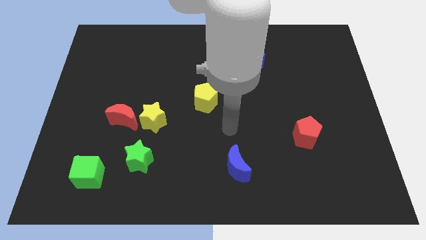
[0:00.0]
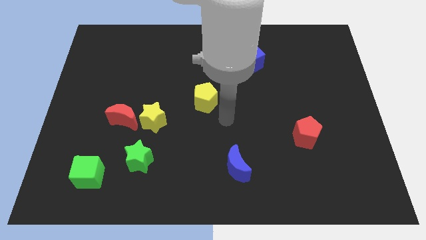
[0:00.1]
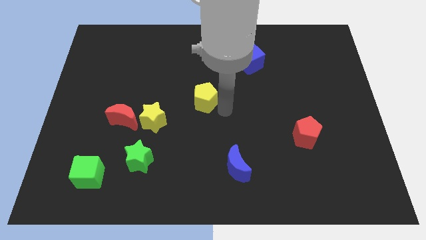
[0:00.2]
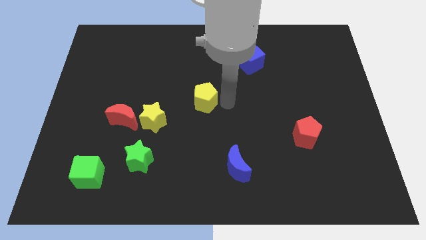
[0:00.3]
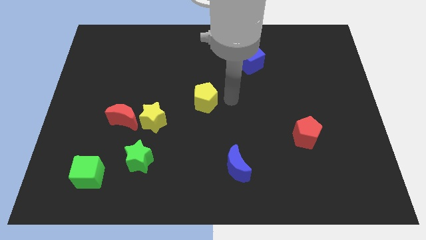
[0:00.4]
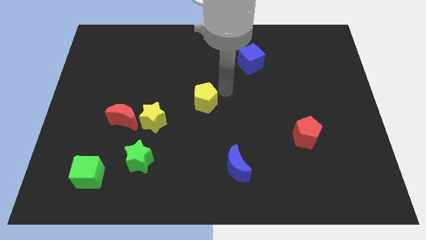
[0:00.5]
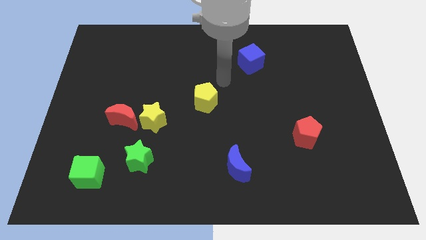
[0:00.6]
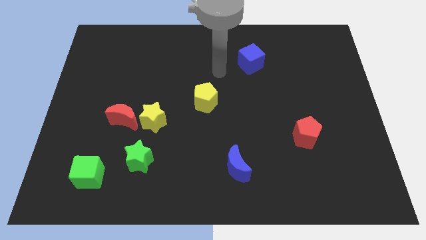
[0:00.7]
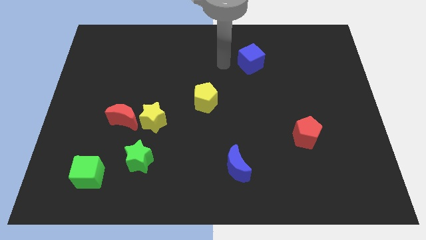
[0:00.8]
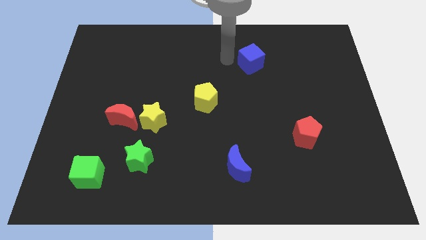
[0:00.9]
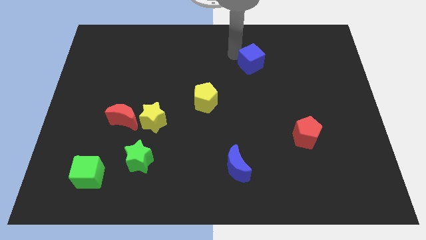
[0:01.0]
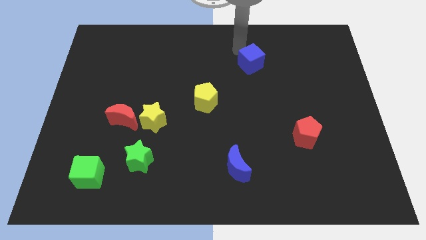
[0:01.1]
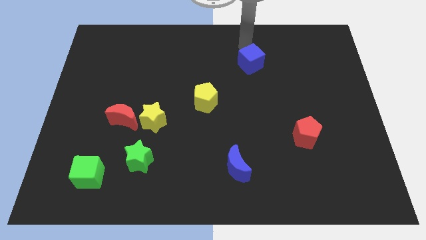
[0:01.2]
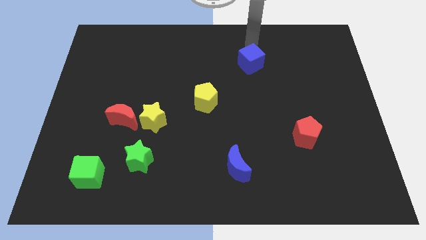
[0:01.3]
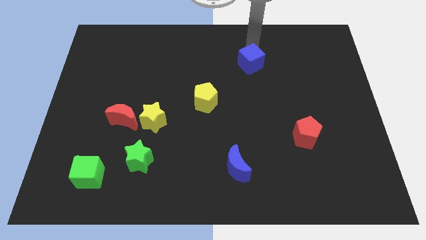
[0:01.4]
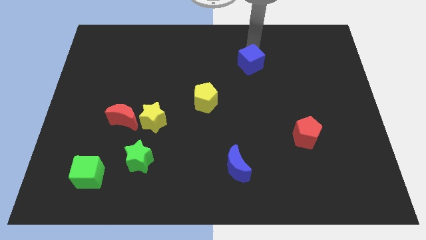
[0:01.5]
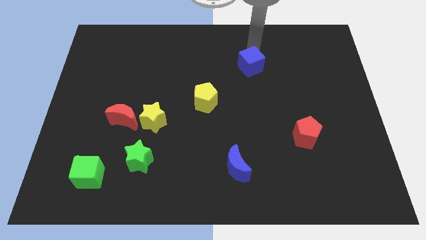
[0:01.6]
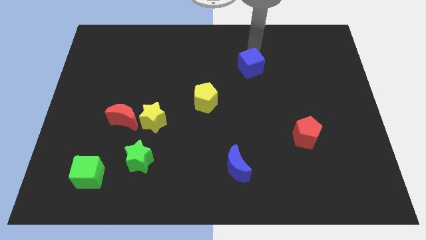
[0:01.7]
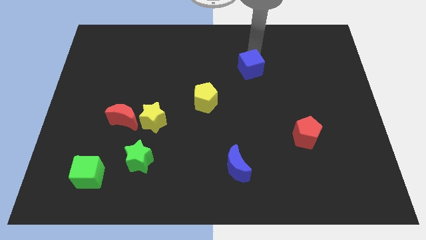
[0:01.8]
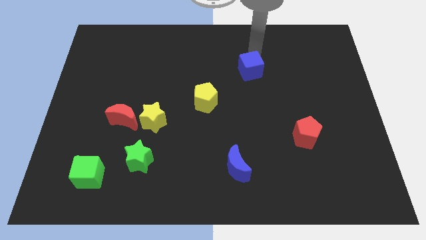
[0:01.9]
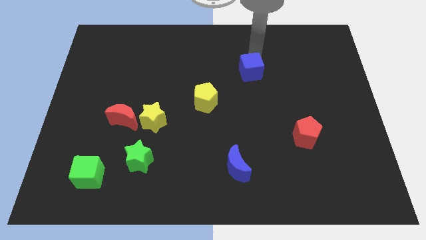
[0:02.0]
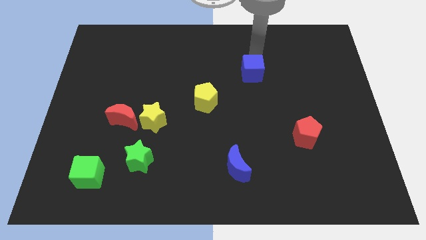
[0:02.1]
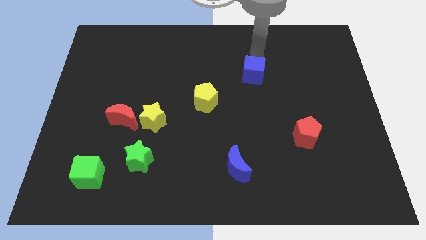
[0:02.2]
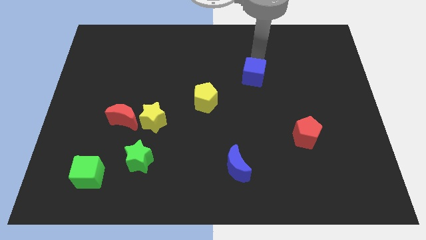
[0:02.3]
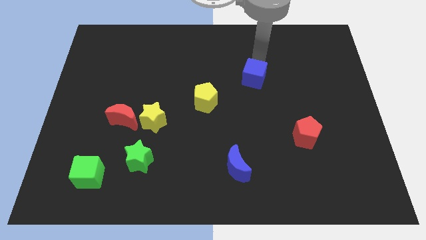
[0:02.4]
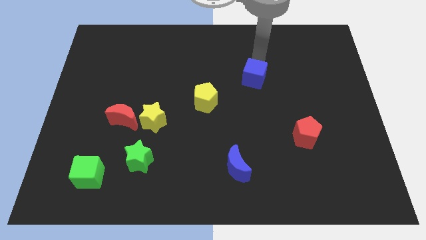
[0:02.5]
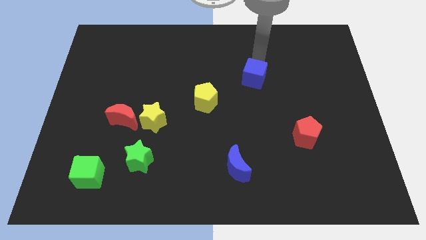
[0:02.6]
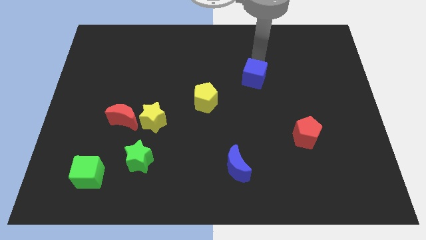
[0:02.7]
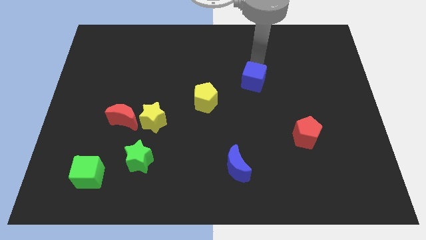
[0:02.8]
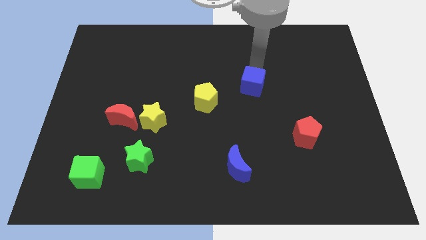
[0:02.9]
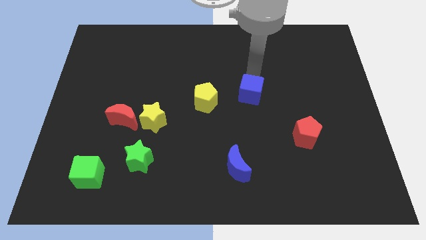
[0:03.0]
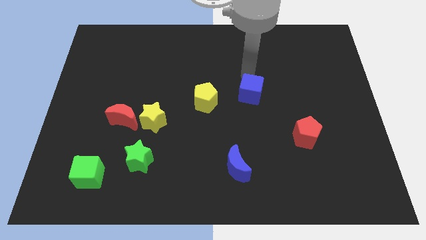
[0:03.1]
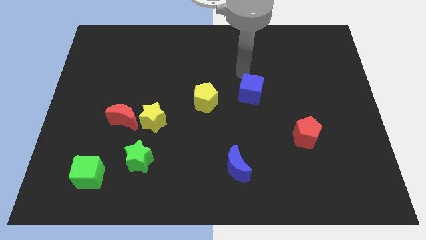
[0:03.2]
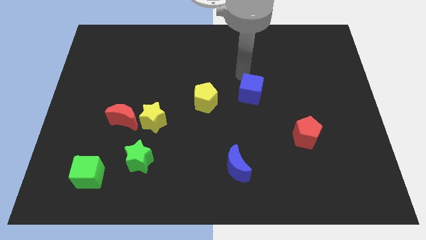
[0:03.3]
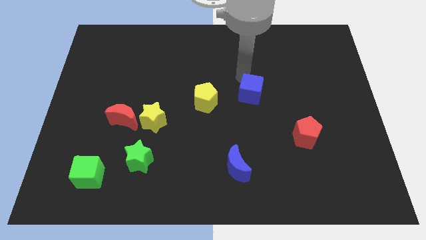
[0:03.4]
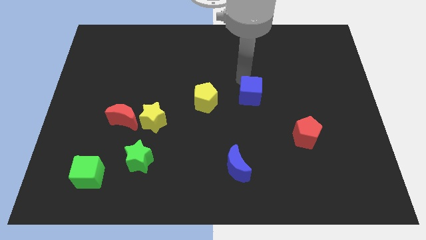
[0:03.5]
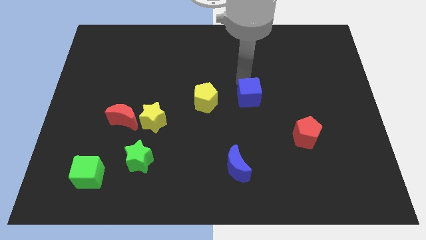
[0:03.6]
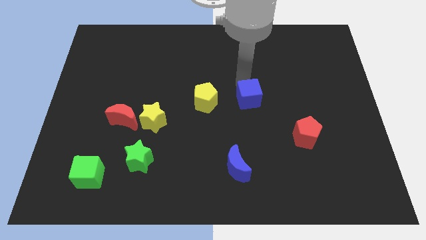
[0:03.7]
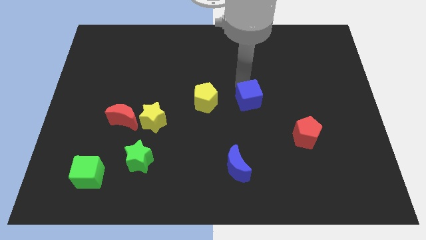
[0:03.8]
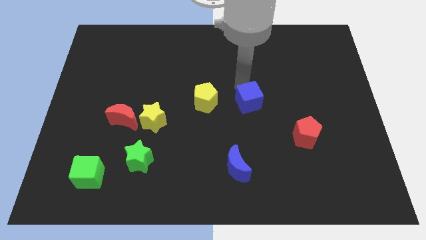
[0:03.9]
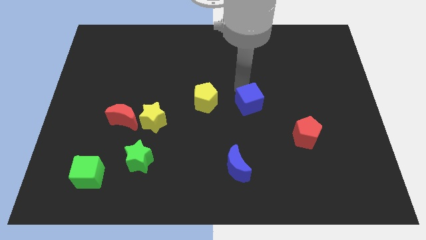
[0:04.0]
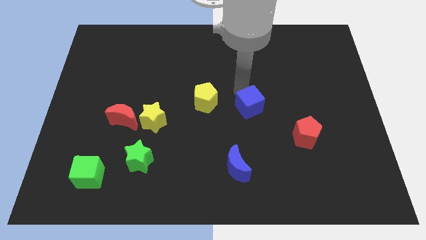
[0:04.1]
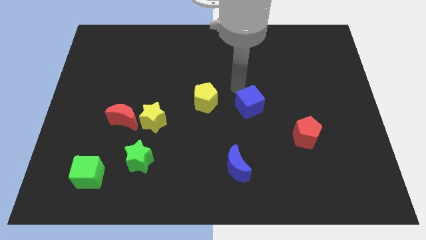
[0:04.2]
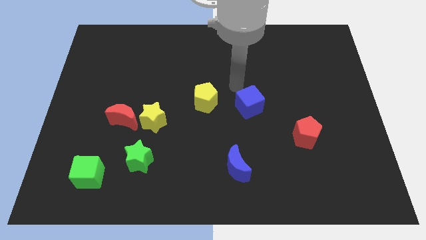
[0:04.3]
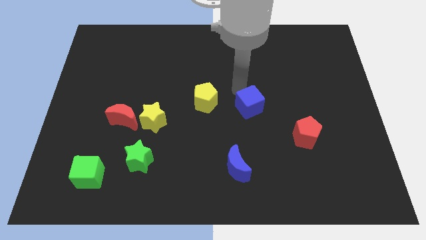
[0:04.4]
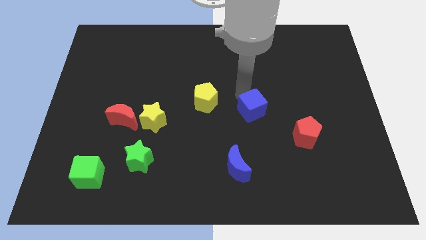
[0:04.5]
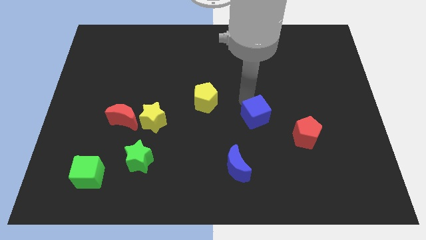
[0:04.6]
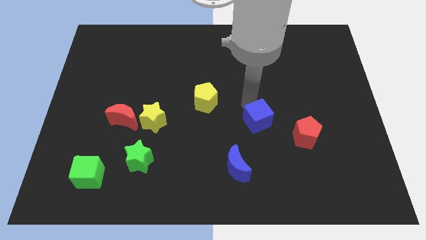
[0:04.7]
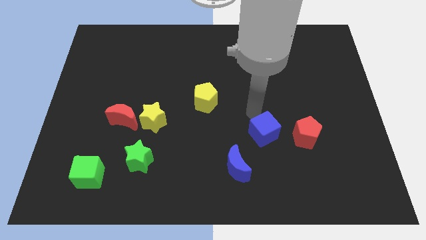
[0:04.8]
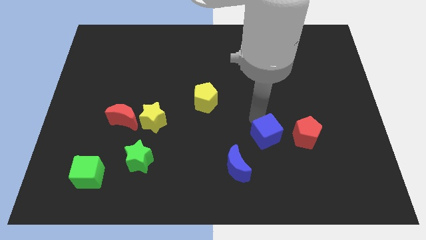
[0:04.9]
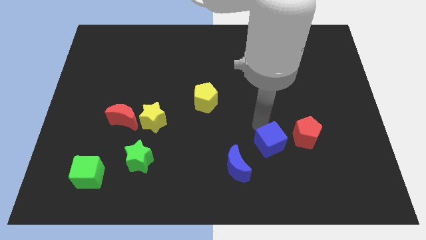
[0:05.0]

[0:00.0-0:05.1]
move the blue cube diagonally down and to the left of the red pentagon

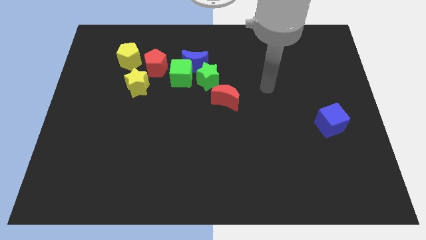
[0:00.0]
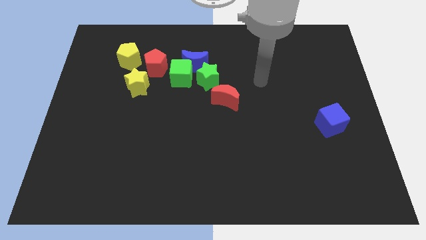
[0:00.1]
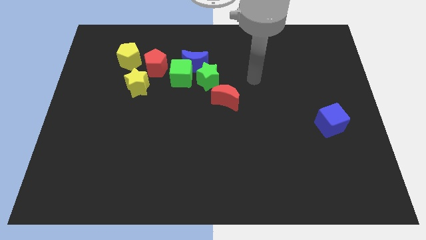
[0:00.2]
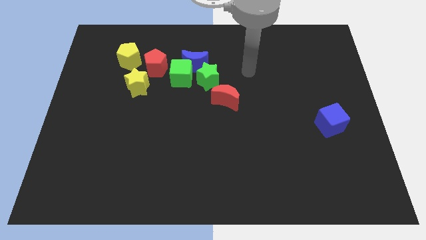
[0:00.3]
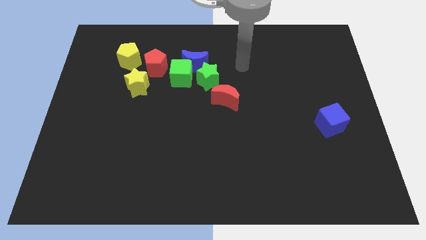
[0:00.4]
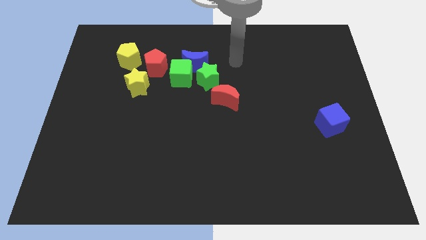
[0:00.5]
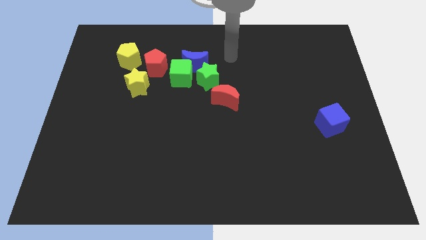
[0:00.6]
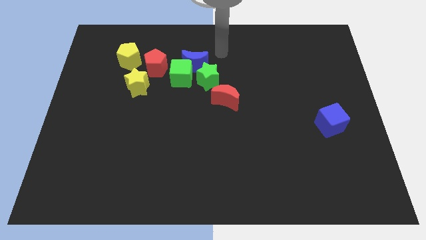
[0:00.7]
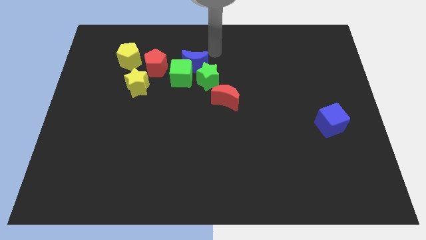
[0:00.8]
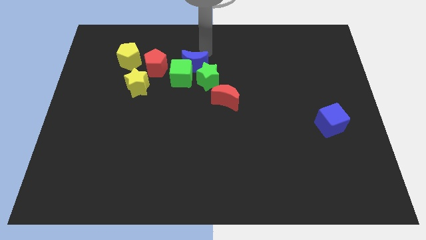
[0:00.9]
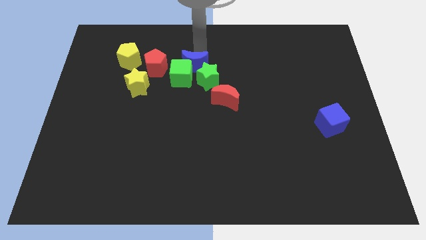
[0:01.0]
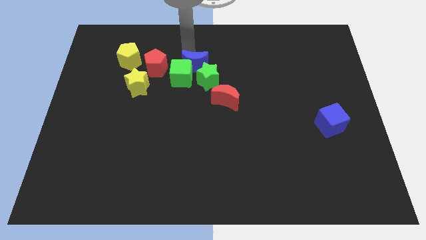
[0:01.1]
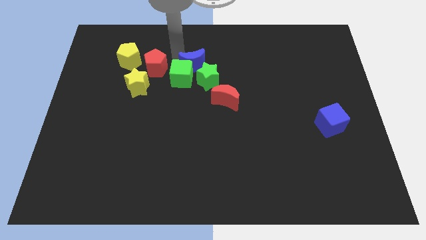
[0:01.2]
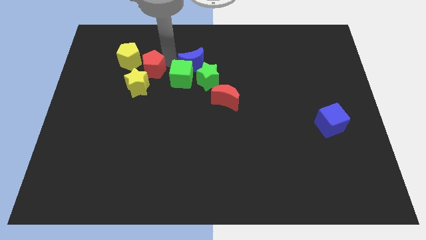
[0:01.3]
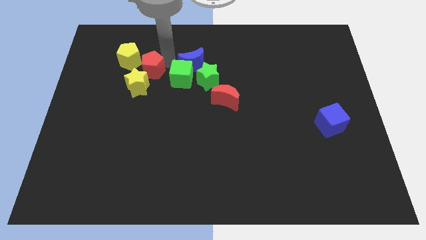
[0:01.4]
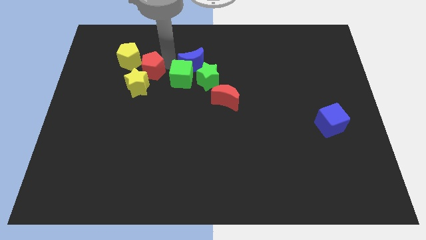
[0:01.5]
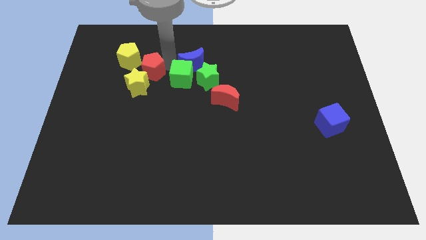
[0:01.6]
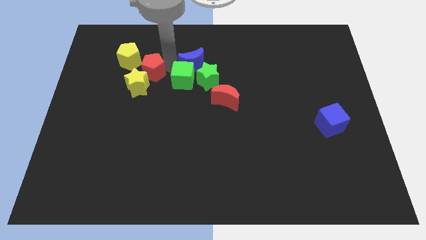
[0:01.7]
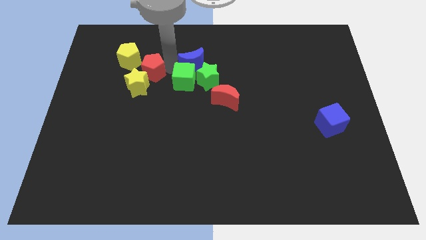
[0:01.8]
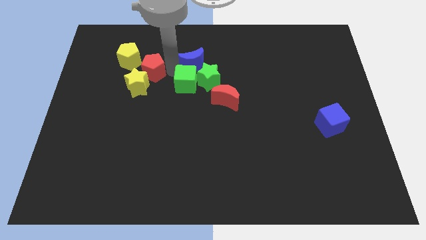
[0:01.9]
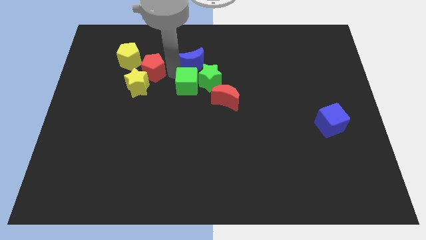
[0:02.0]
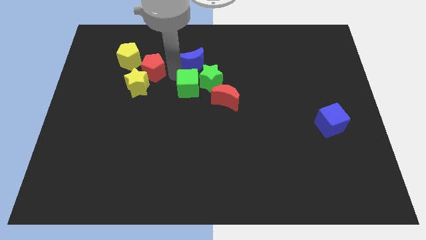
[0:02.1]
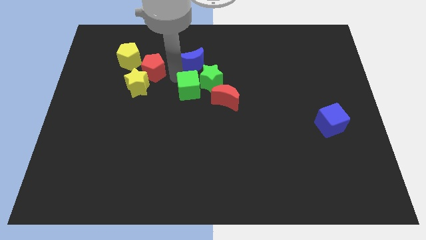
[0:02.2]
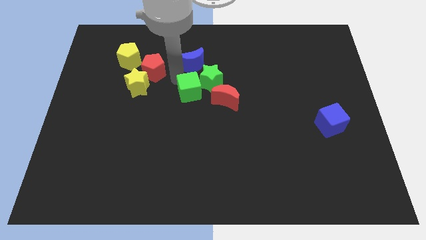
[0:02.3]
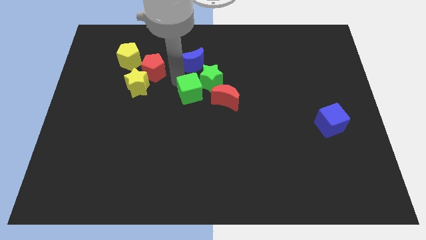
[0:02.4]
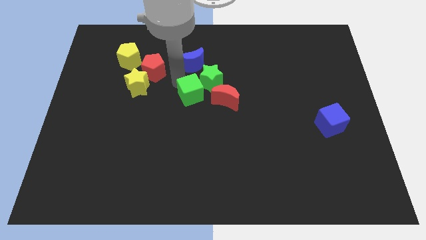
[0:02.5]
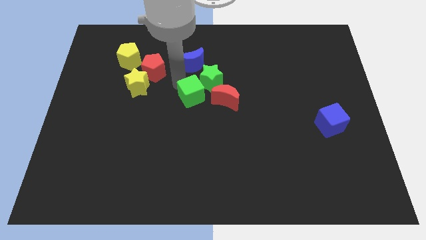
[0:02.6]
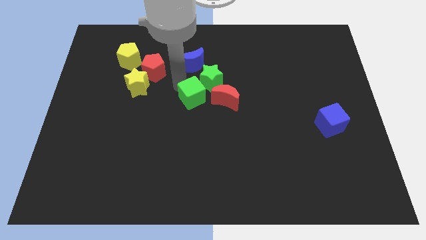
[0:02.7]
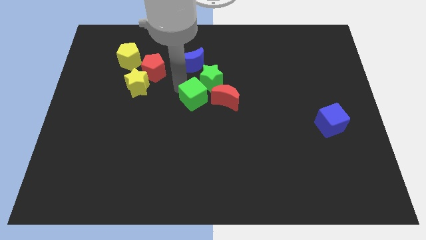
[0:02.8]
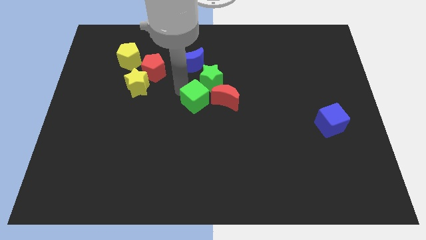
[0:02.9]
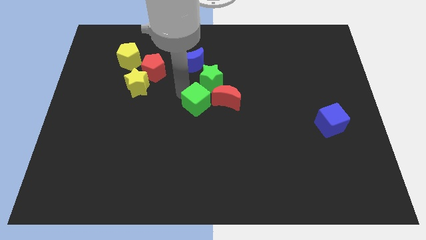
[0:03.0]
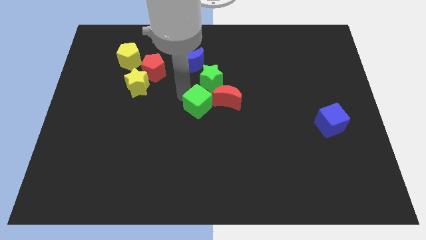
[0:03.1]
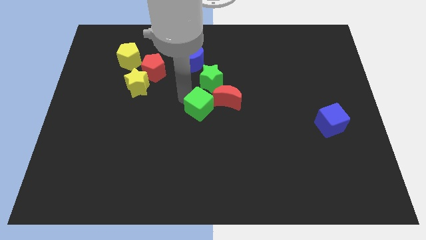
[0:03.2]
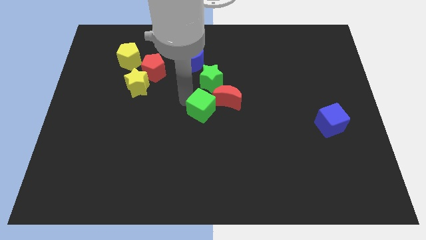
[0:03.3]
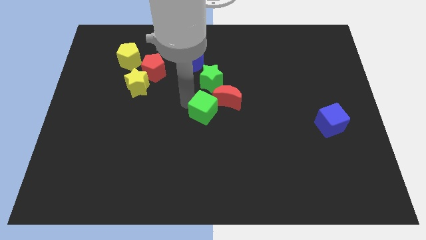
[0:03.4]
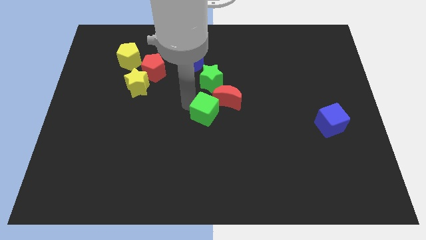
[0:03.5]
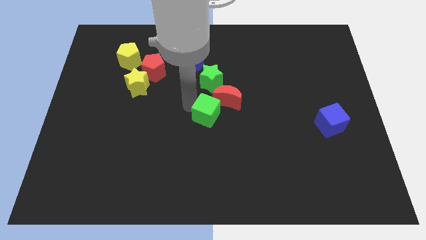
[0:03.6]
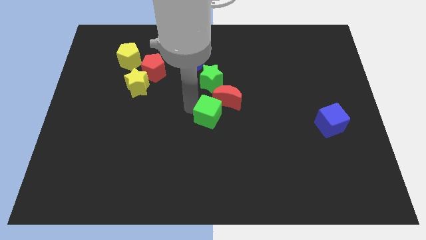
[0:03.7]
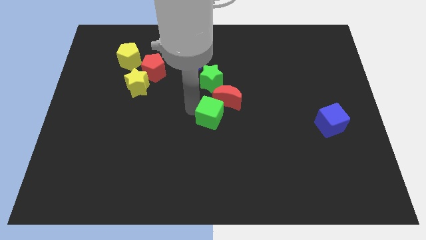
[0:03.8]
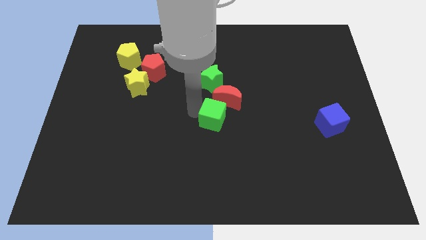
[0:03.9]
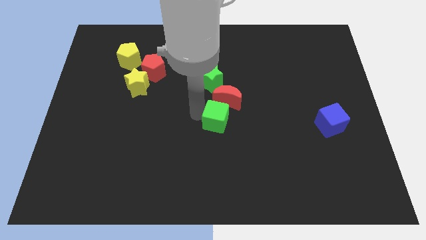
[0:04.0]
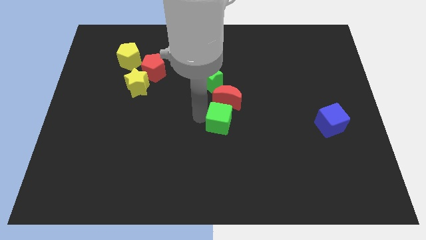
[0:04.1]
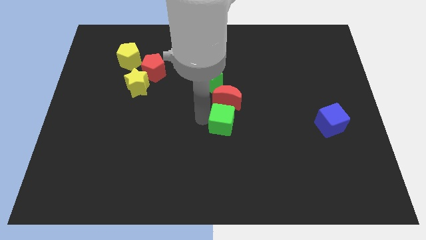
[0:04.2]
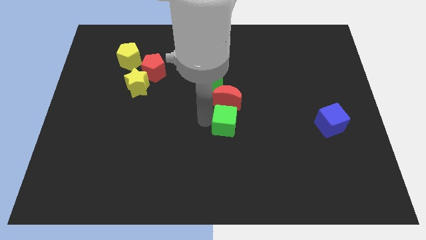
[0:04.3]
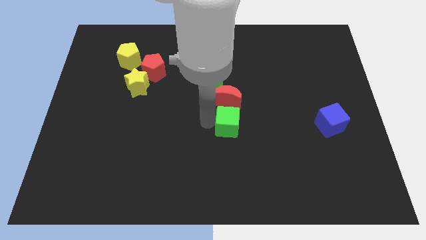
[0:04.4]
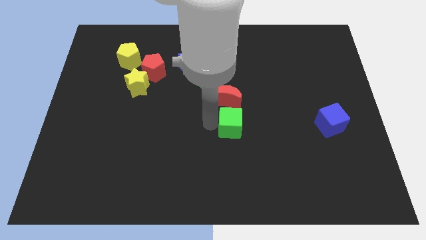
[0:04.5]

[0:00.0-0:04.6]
move the green cube diagonally down and to the right of the red moon
